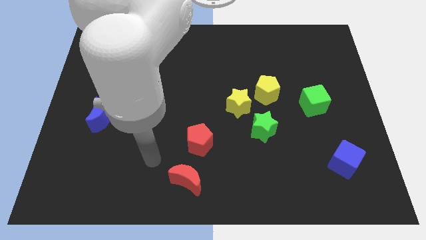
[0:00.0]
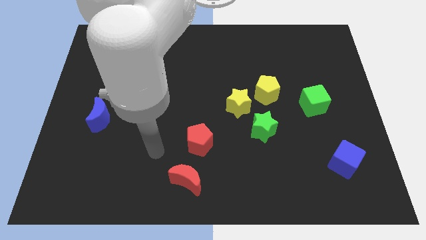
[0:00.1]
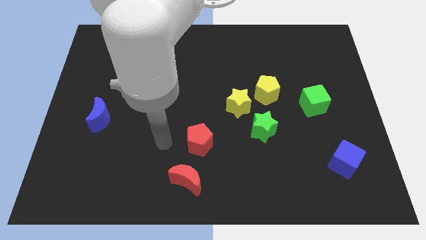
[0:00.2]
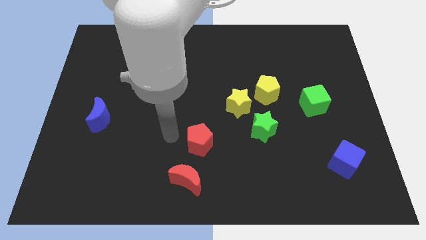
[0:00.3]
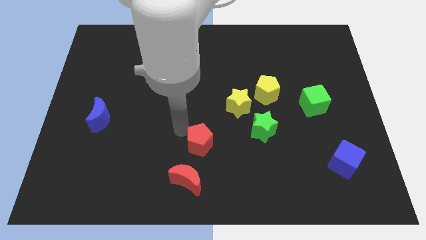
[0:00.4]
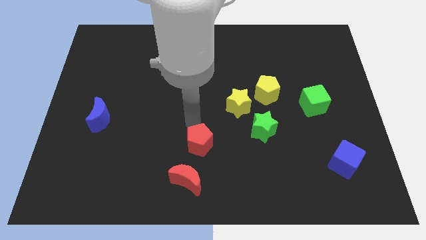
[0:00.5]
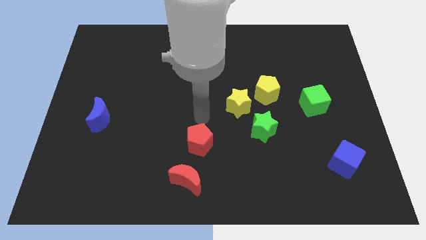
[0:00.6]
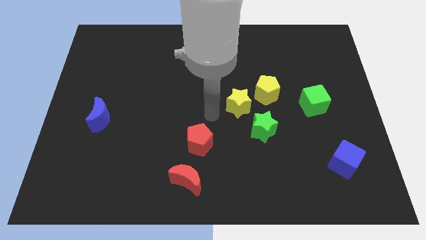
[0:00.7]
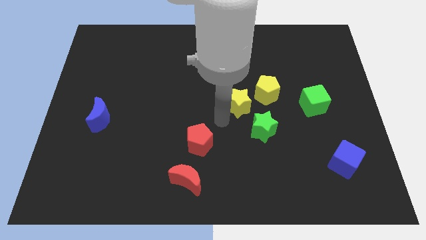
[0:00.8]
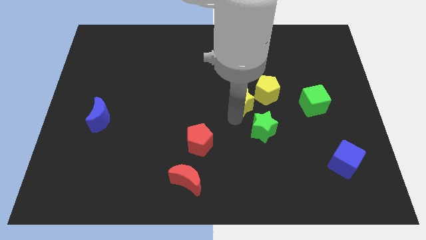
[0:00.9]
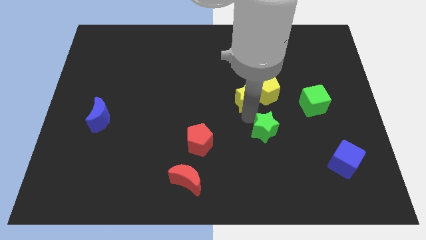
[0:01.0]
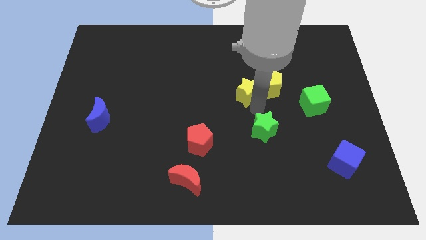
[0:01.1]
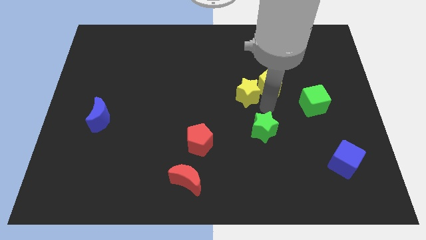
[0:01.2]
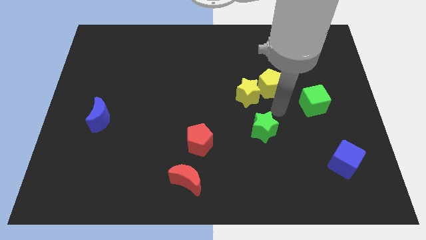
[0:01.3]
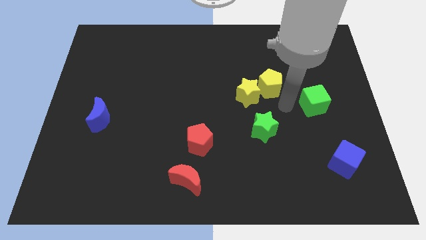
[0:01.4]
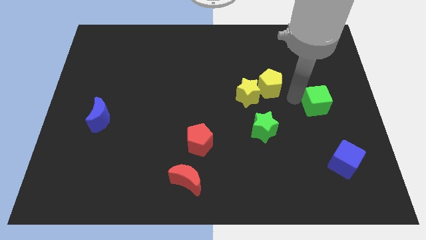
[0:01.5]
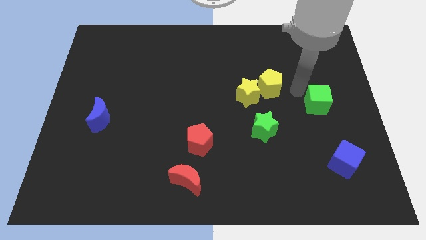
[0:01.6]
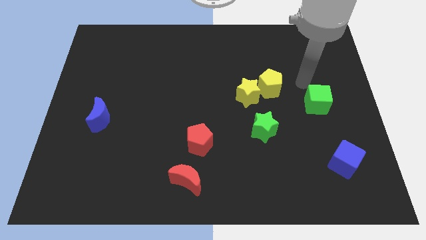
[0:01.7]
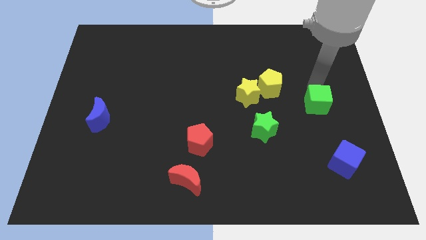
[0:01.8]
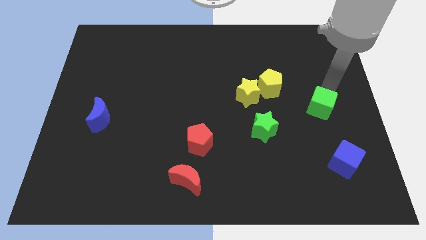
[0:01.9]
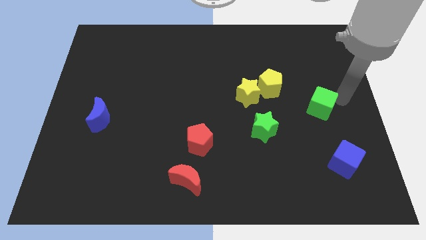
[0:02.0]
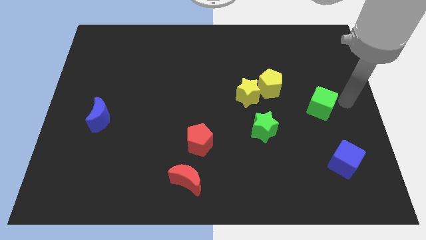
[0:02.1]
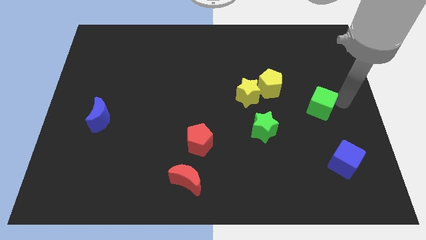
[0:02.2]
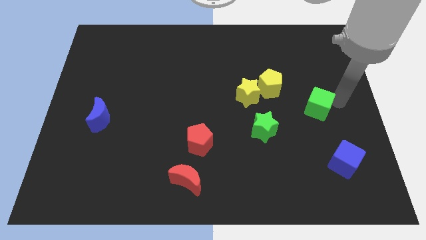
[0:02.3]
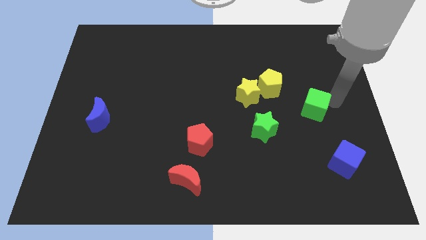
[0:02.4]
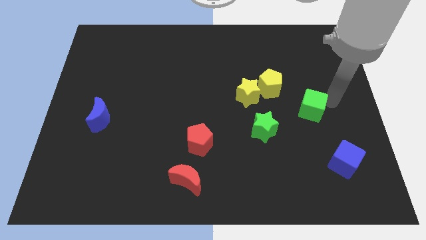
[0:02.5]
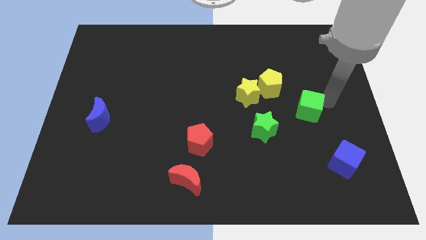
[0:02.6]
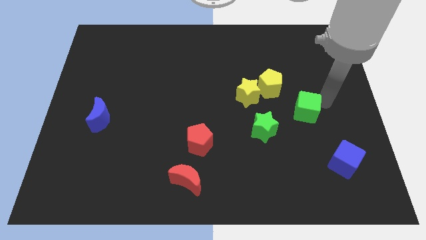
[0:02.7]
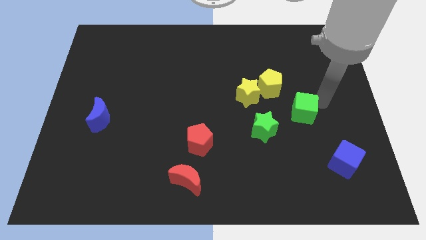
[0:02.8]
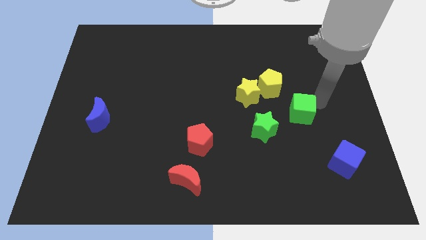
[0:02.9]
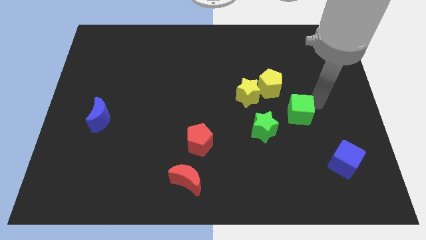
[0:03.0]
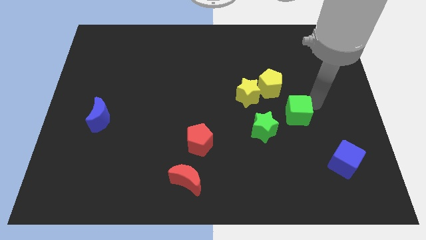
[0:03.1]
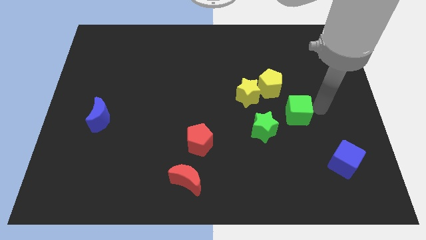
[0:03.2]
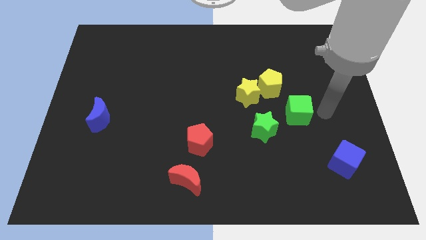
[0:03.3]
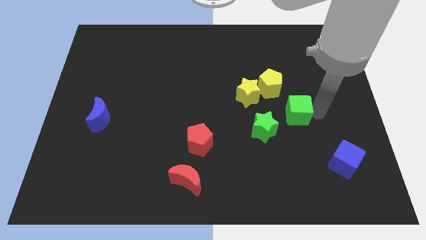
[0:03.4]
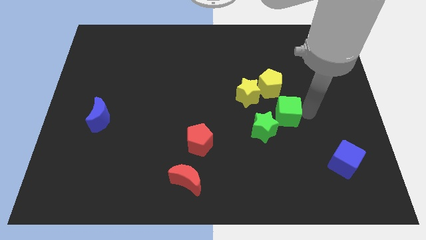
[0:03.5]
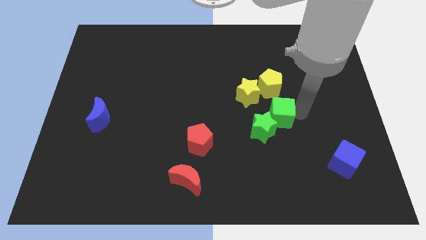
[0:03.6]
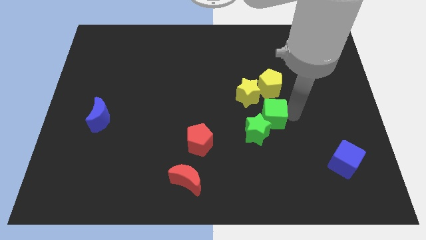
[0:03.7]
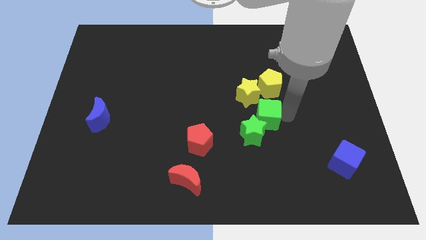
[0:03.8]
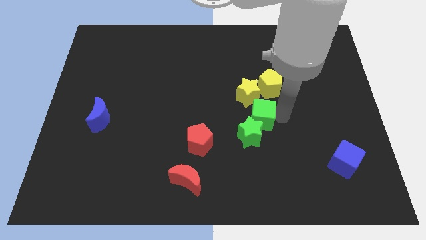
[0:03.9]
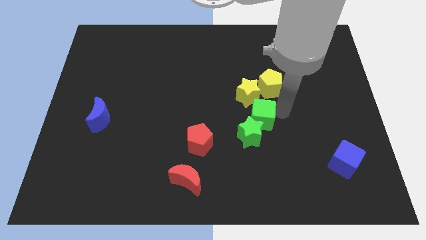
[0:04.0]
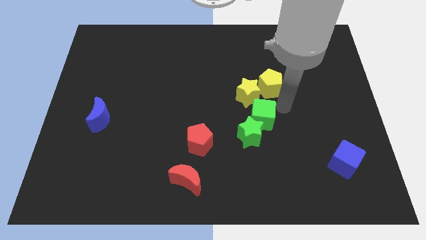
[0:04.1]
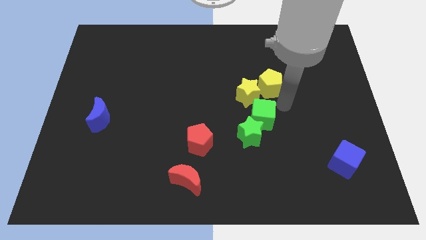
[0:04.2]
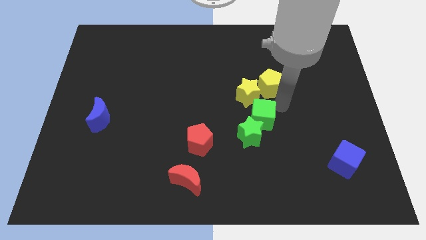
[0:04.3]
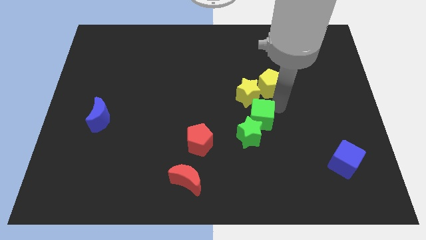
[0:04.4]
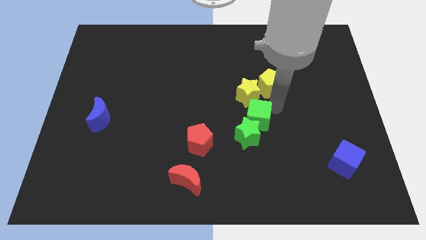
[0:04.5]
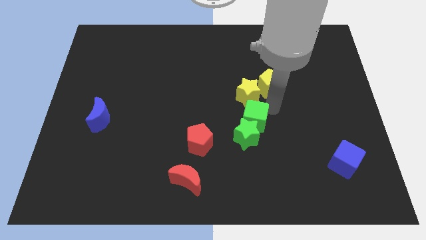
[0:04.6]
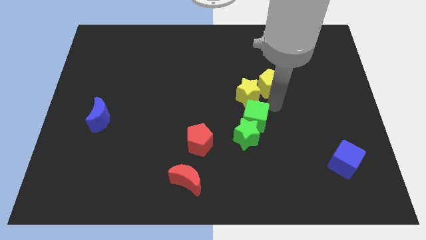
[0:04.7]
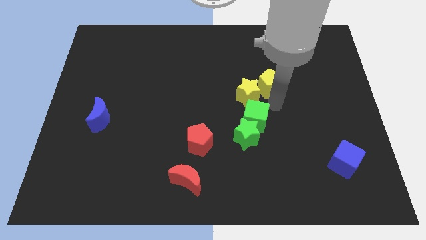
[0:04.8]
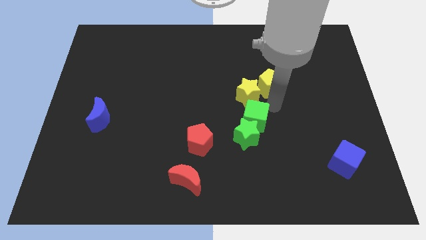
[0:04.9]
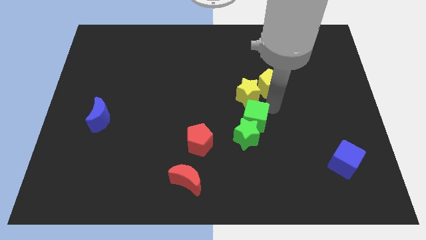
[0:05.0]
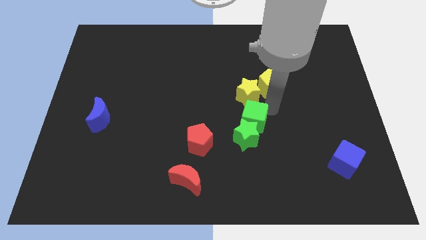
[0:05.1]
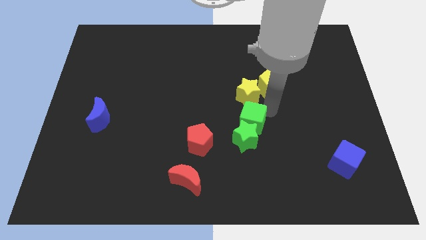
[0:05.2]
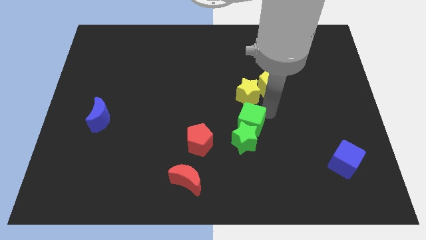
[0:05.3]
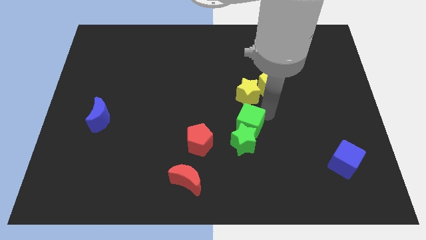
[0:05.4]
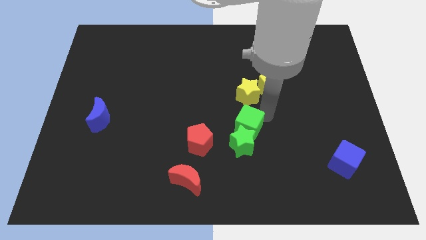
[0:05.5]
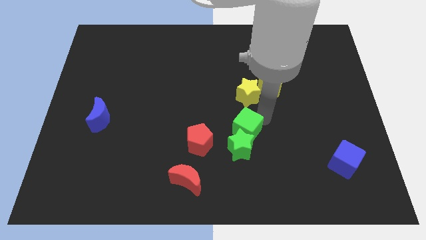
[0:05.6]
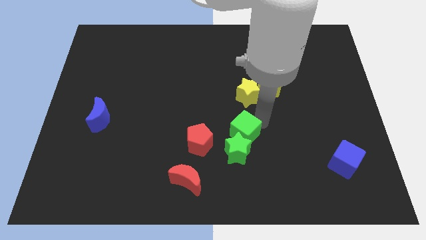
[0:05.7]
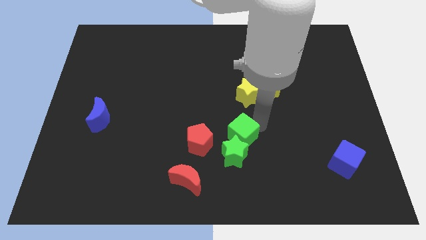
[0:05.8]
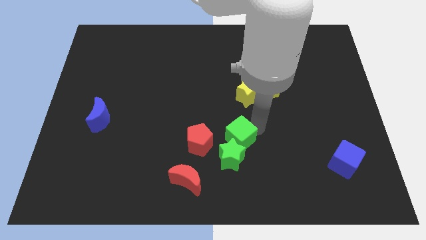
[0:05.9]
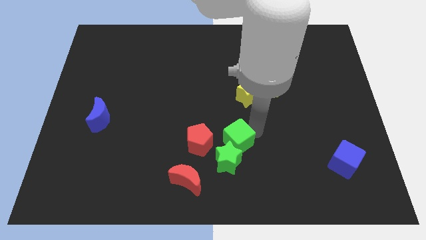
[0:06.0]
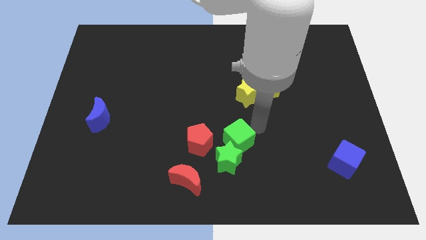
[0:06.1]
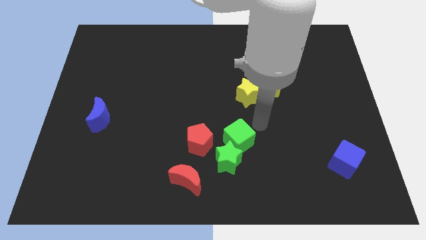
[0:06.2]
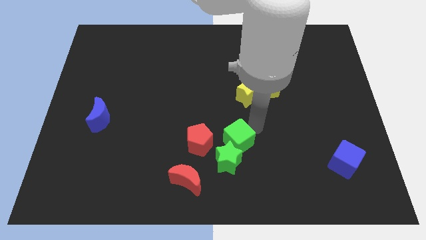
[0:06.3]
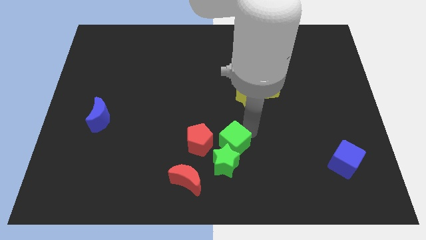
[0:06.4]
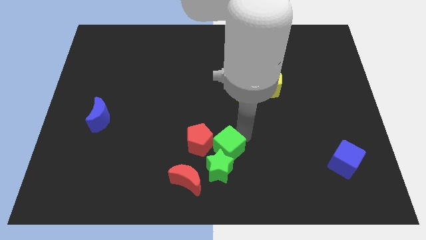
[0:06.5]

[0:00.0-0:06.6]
slide the green cube to the top right side of the red moon

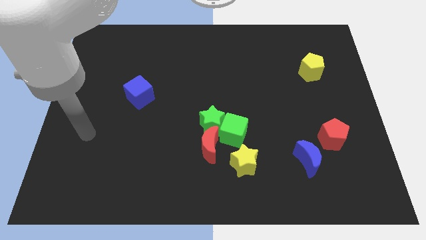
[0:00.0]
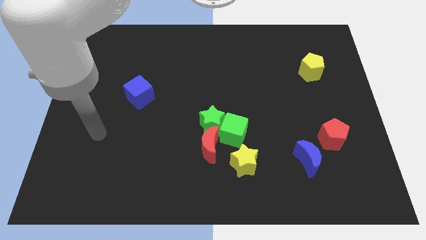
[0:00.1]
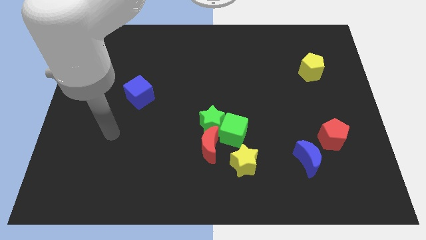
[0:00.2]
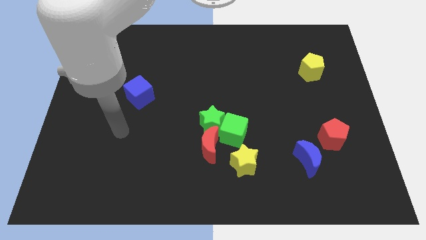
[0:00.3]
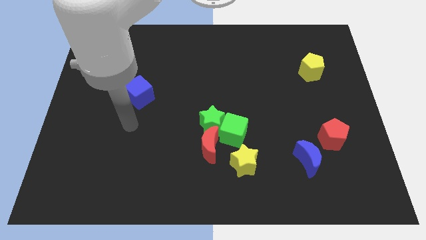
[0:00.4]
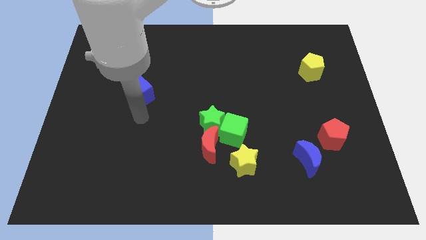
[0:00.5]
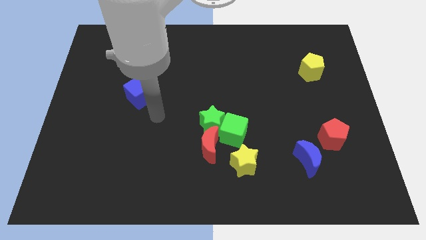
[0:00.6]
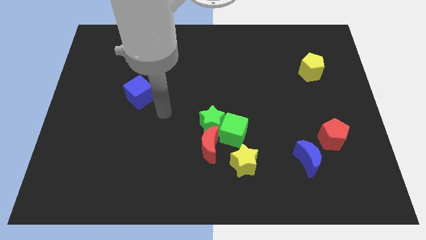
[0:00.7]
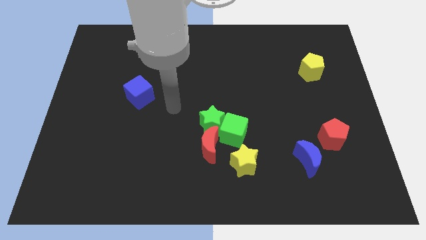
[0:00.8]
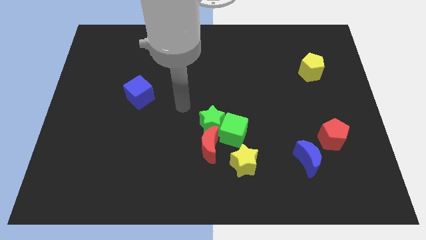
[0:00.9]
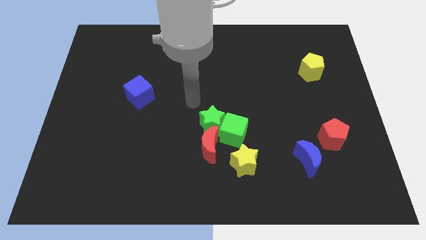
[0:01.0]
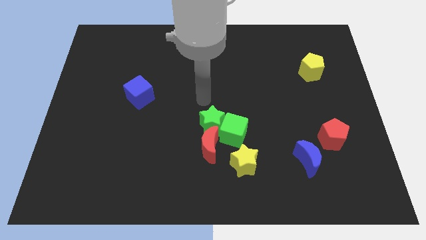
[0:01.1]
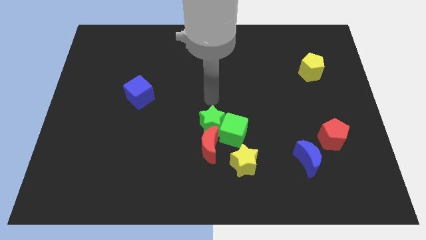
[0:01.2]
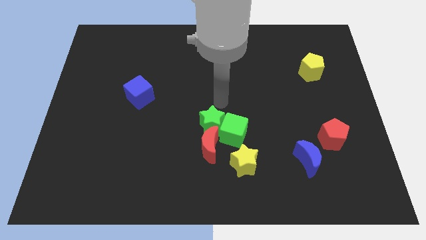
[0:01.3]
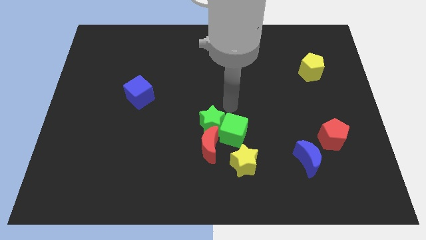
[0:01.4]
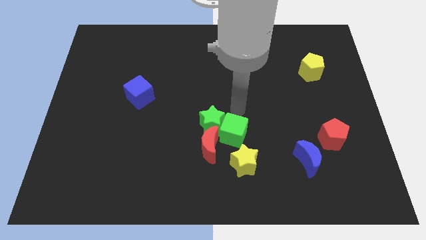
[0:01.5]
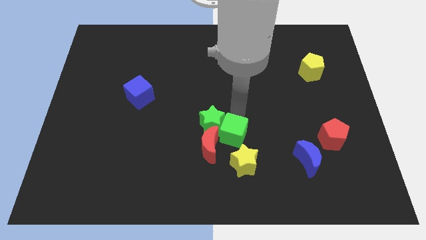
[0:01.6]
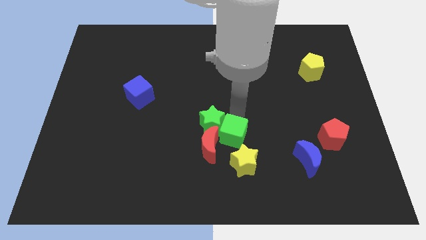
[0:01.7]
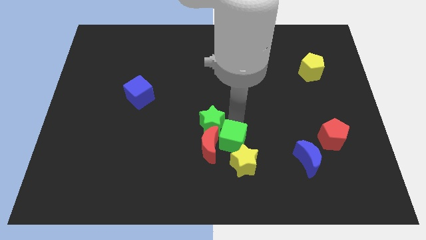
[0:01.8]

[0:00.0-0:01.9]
slide the green cube below the green star
